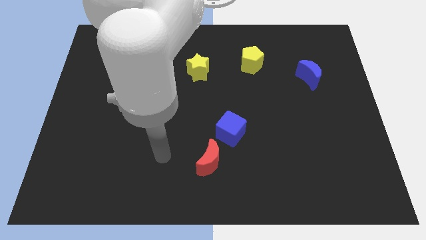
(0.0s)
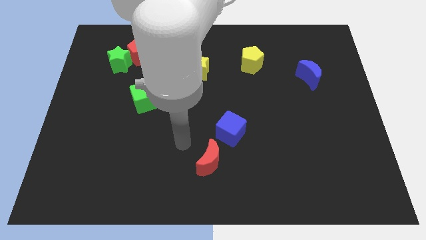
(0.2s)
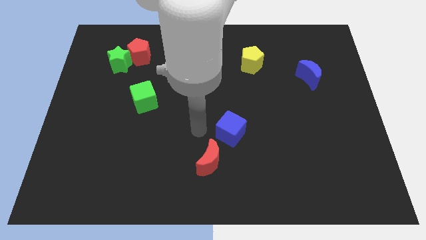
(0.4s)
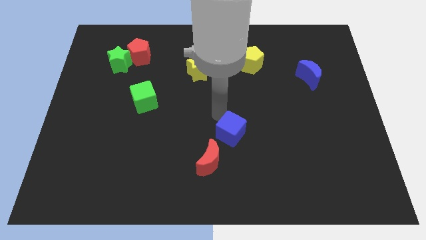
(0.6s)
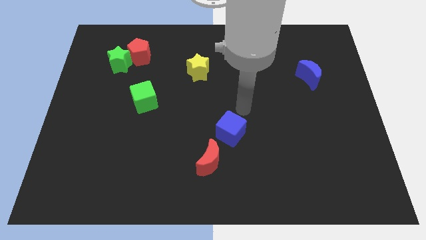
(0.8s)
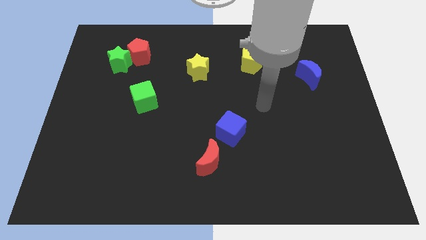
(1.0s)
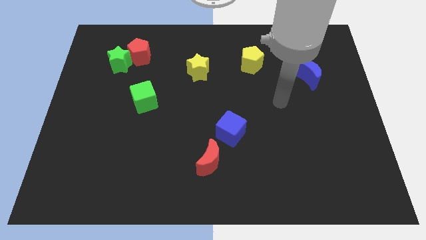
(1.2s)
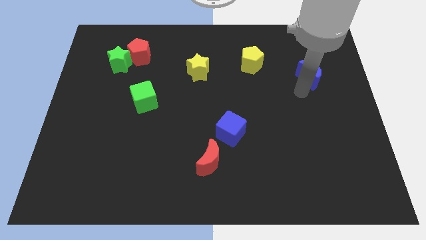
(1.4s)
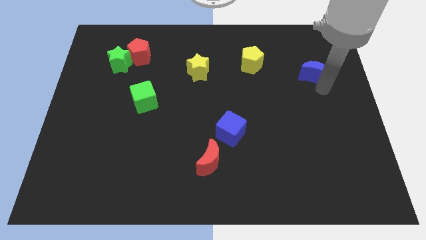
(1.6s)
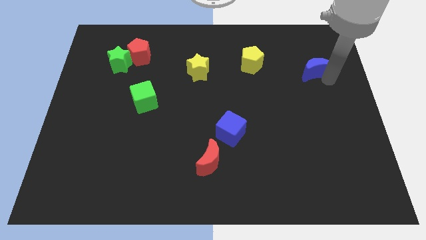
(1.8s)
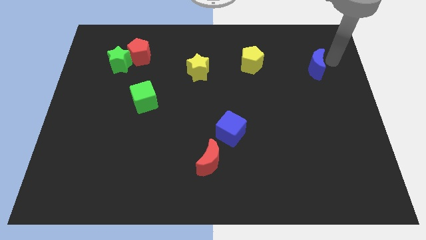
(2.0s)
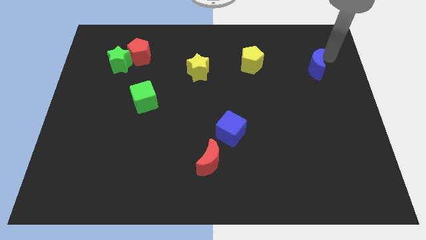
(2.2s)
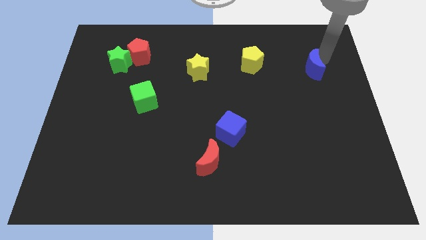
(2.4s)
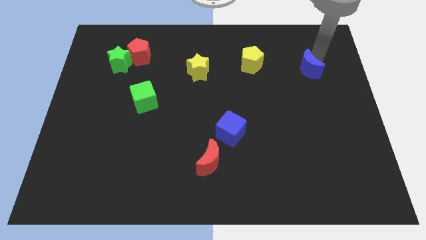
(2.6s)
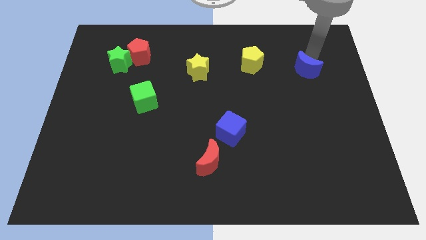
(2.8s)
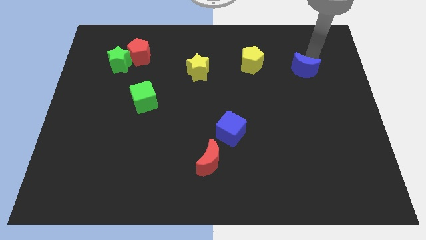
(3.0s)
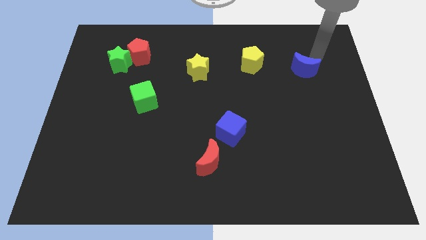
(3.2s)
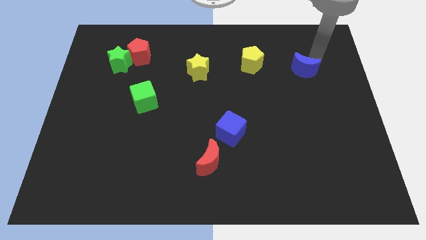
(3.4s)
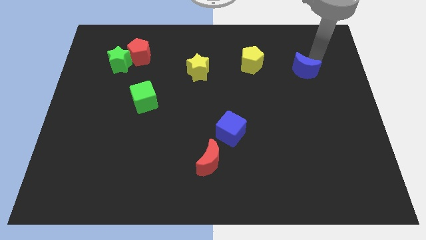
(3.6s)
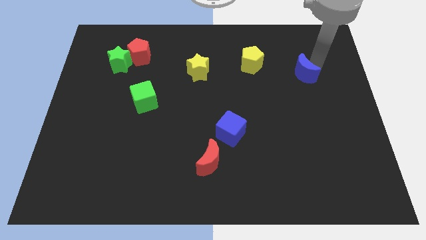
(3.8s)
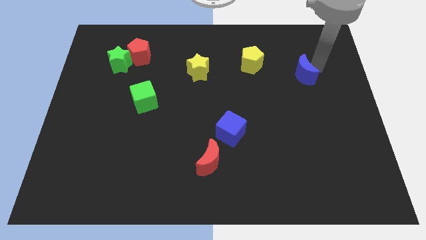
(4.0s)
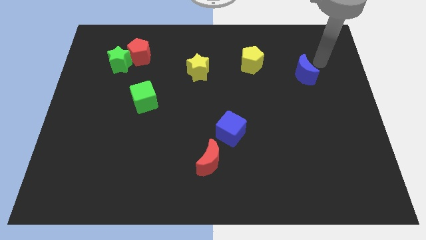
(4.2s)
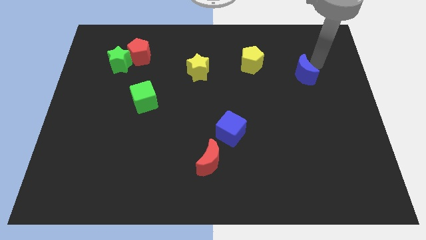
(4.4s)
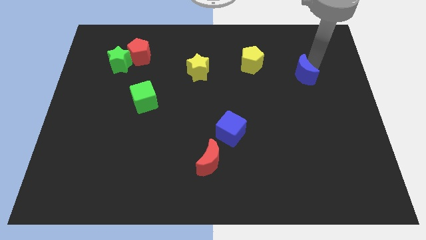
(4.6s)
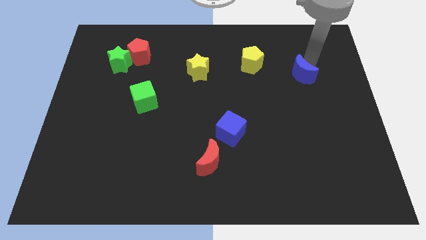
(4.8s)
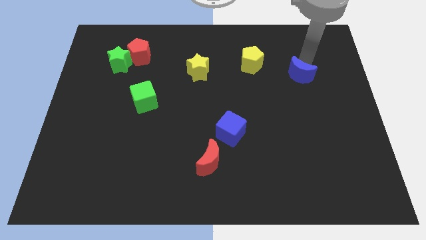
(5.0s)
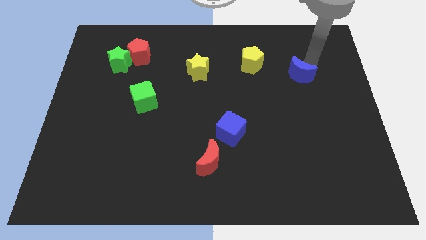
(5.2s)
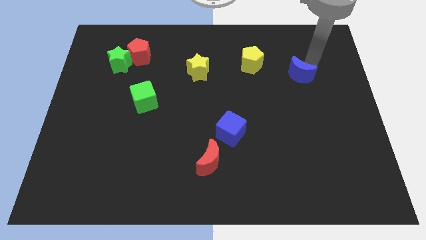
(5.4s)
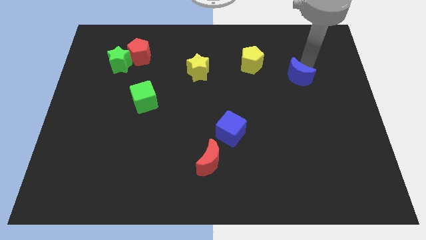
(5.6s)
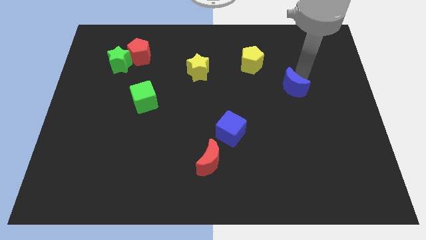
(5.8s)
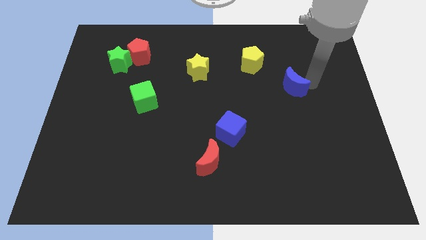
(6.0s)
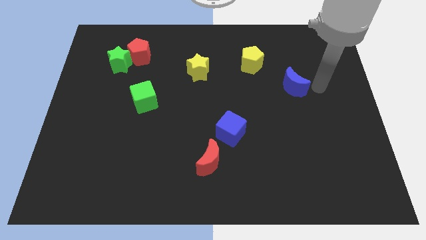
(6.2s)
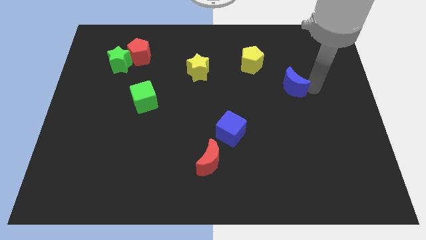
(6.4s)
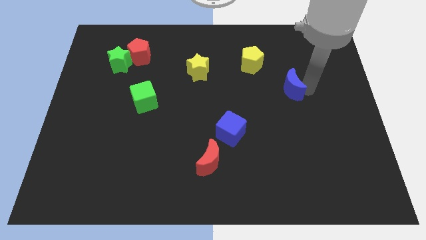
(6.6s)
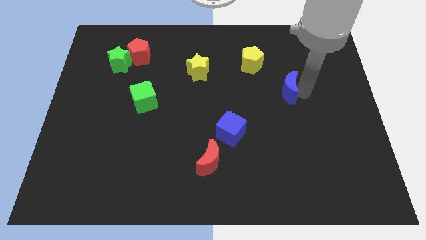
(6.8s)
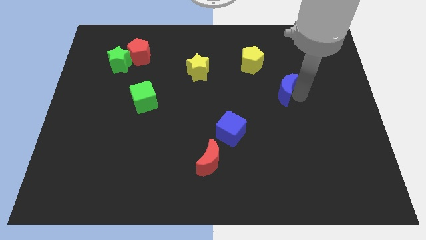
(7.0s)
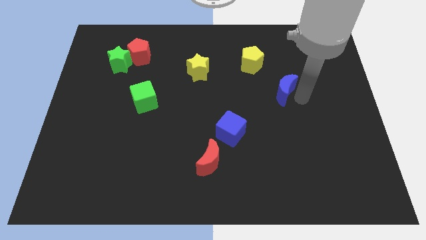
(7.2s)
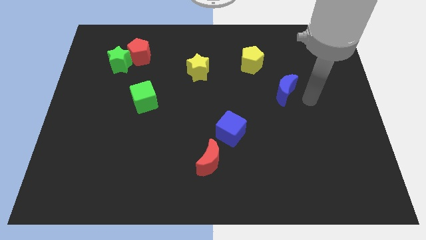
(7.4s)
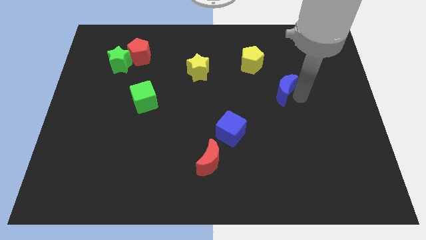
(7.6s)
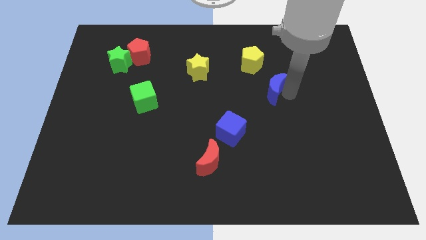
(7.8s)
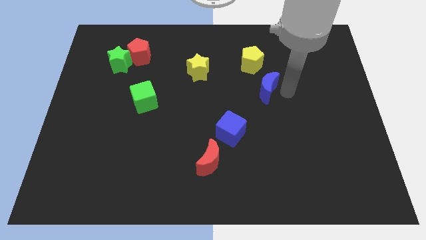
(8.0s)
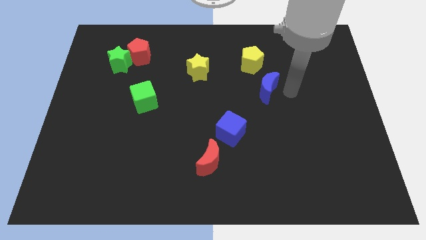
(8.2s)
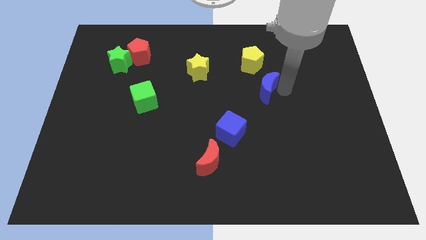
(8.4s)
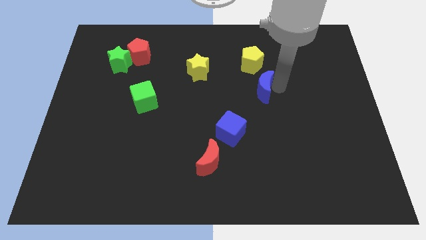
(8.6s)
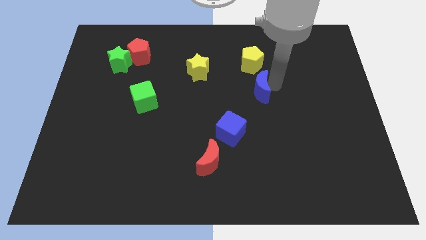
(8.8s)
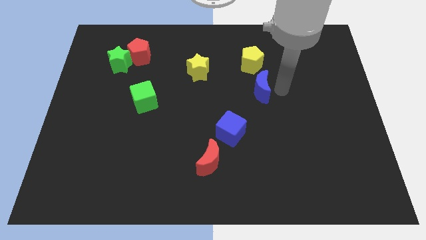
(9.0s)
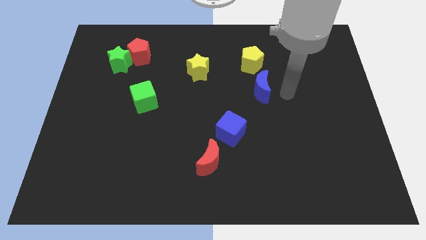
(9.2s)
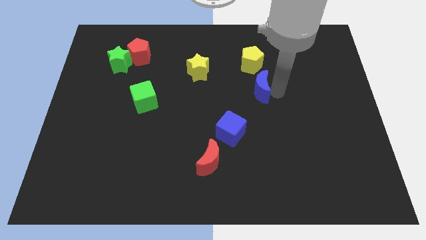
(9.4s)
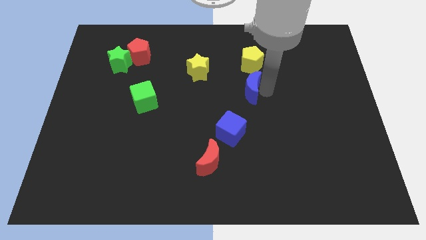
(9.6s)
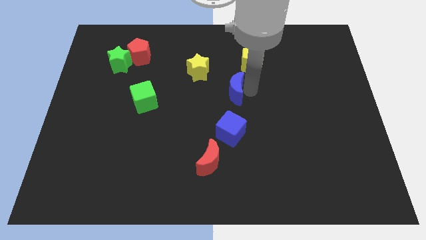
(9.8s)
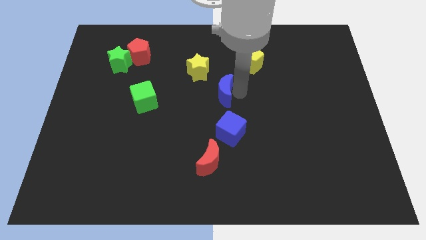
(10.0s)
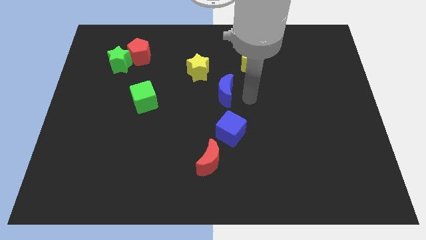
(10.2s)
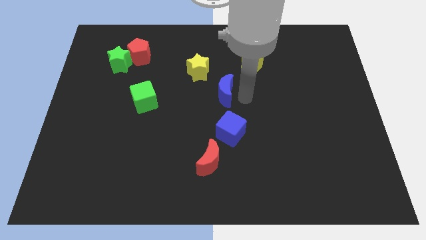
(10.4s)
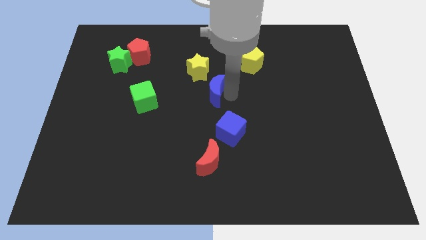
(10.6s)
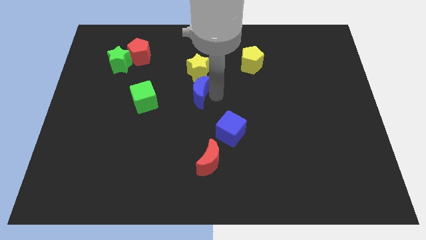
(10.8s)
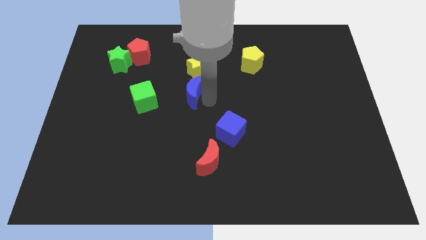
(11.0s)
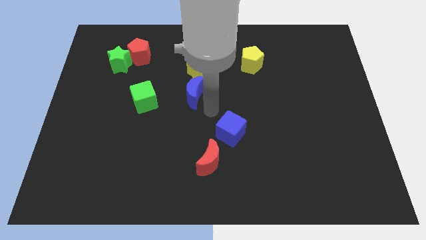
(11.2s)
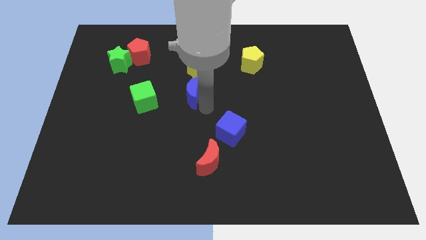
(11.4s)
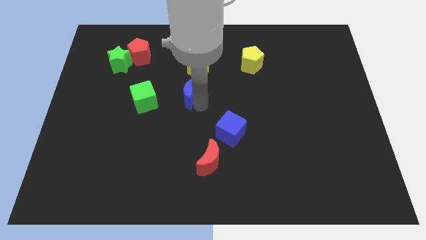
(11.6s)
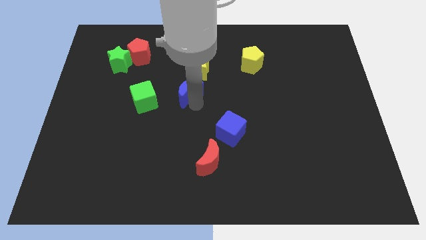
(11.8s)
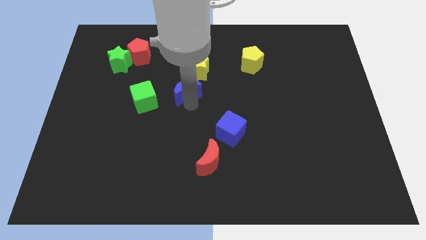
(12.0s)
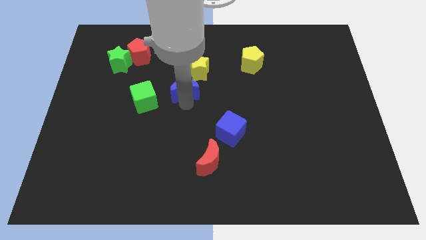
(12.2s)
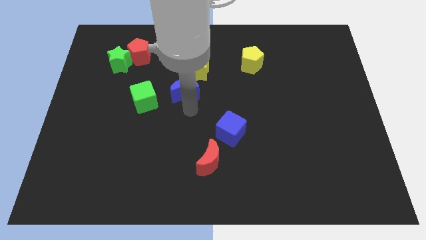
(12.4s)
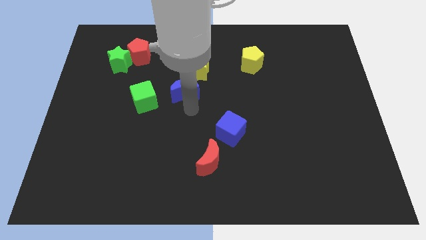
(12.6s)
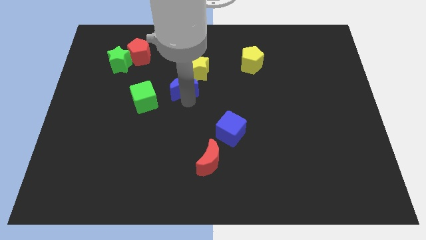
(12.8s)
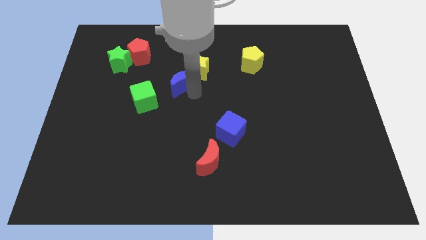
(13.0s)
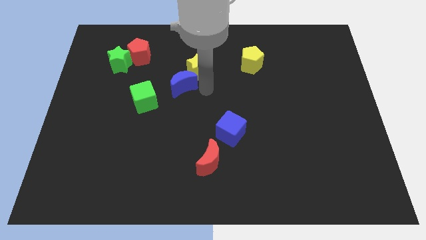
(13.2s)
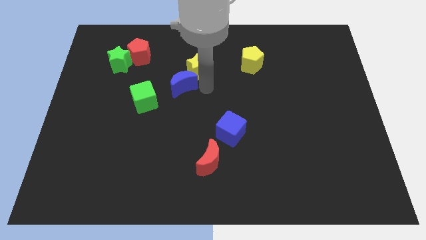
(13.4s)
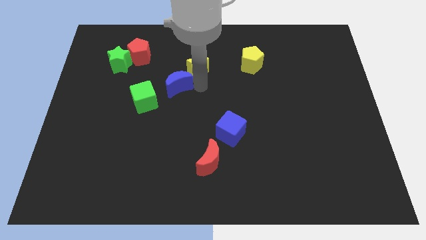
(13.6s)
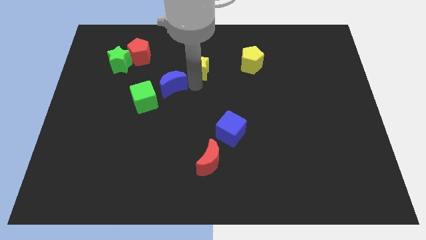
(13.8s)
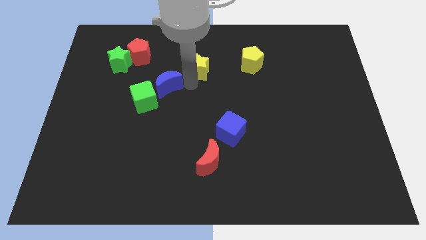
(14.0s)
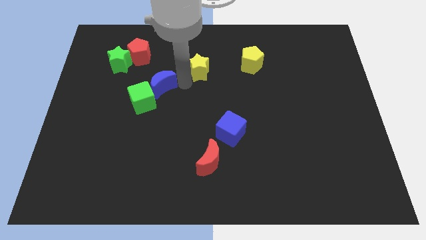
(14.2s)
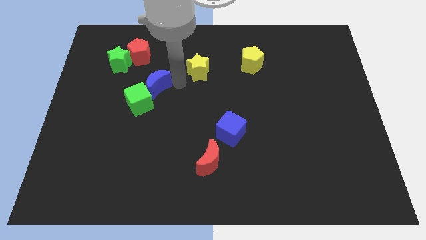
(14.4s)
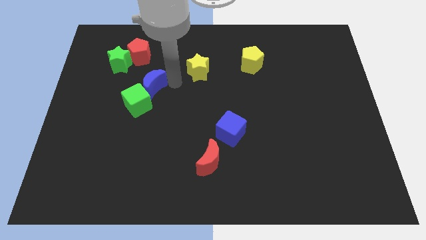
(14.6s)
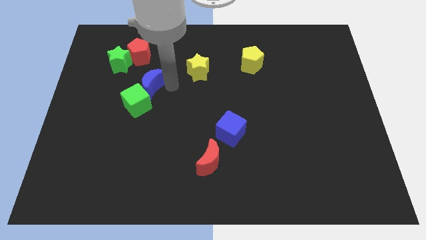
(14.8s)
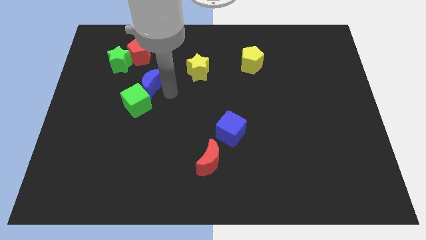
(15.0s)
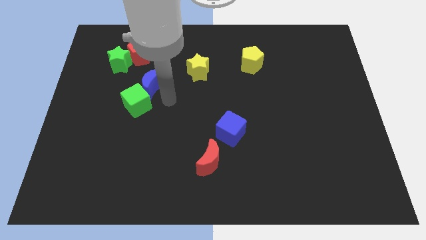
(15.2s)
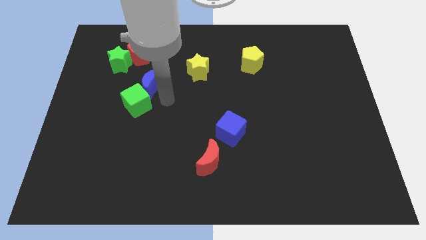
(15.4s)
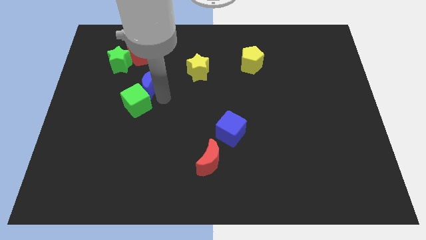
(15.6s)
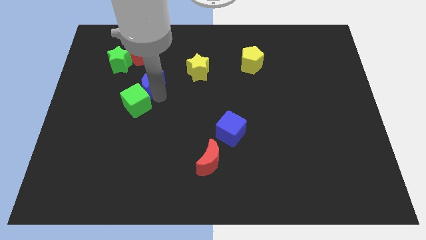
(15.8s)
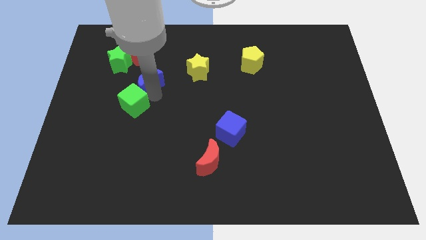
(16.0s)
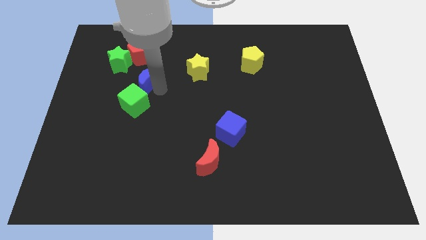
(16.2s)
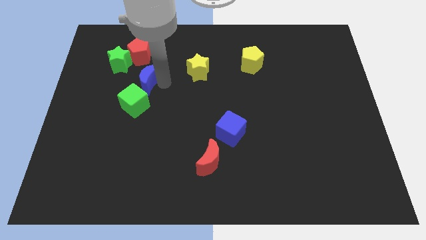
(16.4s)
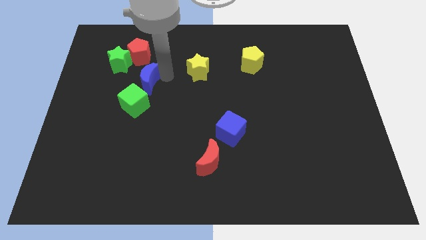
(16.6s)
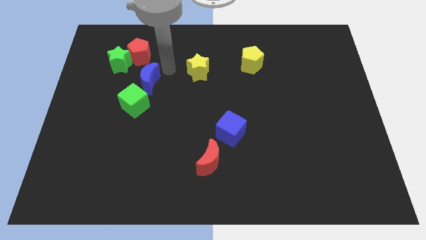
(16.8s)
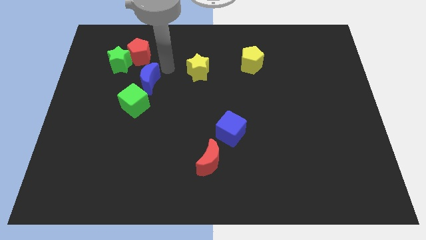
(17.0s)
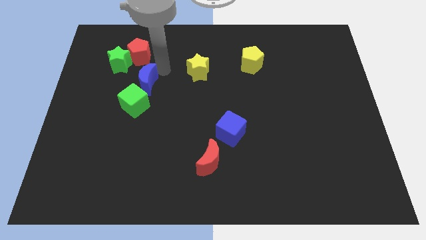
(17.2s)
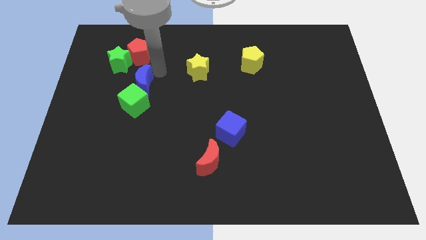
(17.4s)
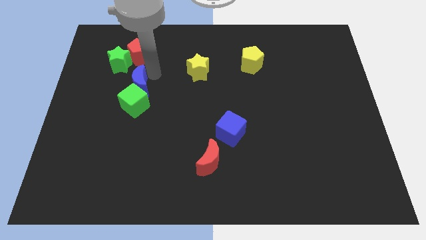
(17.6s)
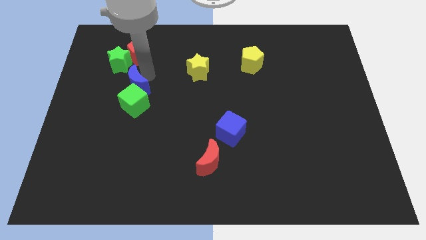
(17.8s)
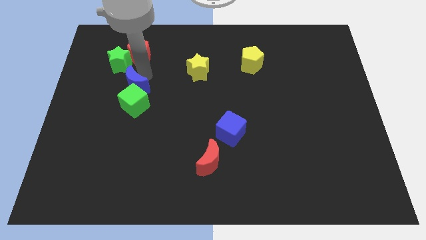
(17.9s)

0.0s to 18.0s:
push the blue moon to the bottom of the green star
